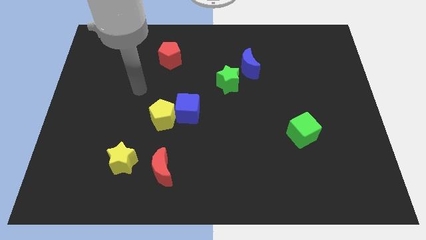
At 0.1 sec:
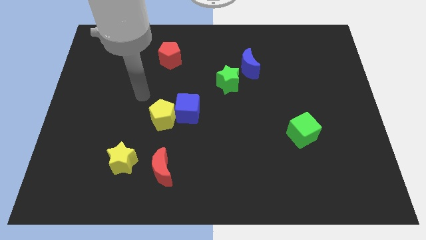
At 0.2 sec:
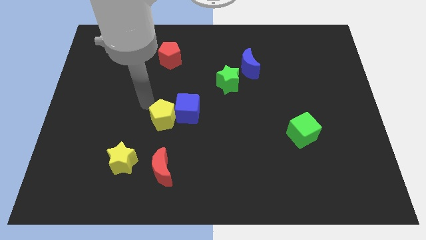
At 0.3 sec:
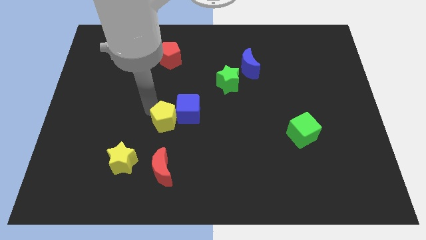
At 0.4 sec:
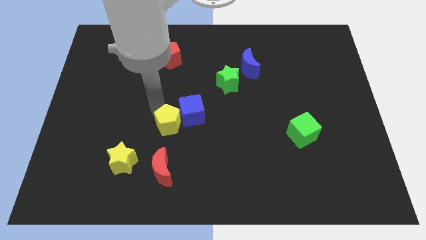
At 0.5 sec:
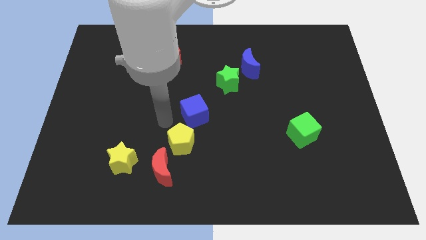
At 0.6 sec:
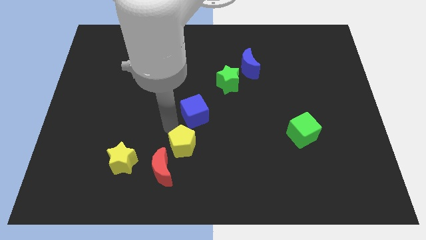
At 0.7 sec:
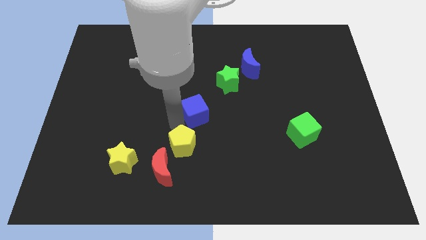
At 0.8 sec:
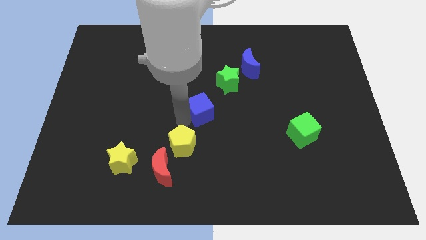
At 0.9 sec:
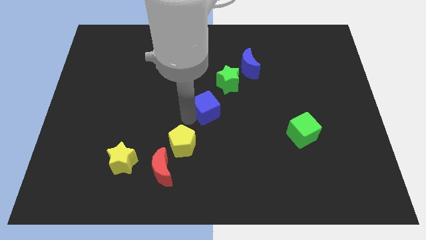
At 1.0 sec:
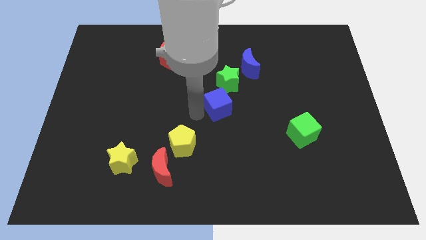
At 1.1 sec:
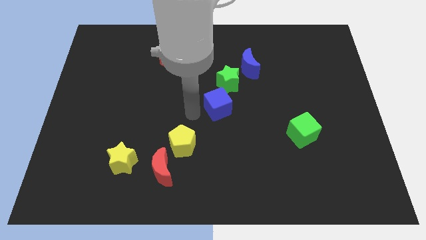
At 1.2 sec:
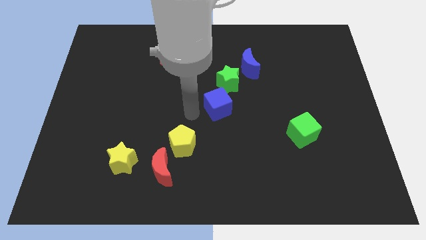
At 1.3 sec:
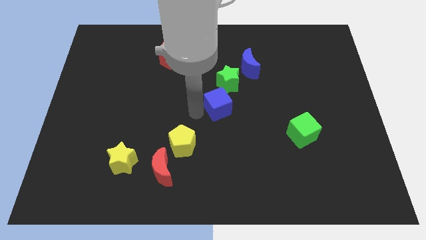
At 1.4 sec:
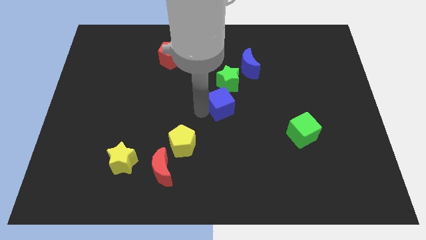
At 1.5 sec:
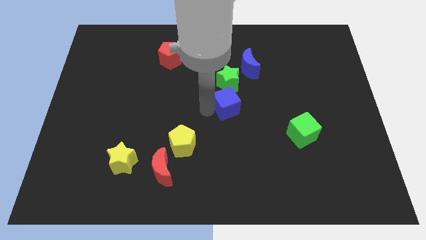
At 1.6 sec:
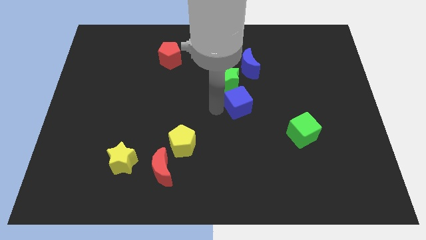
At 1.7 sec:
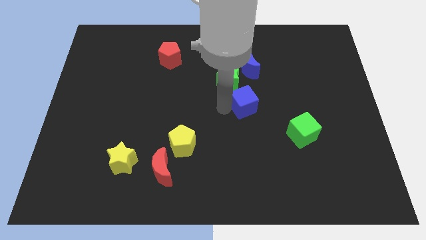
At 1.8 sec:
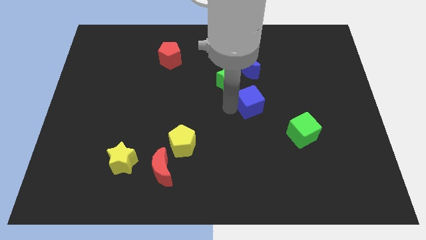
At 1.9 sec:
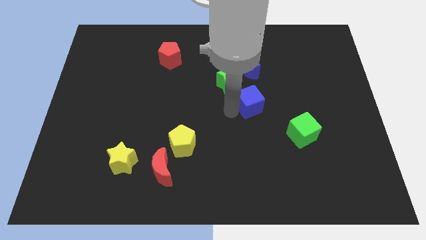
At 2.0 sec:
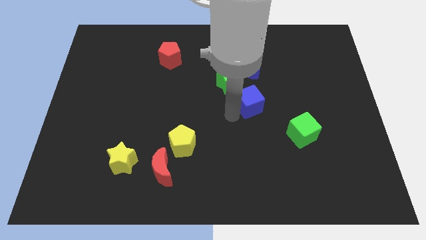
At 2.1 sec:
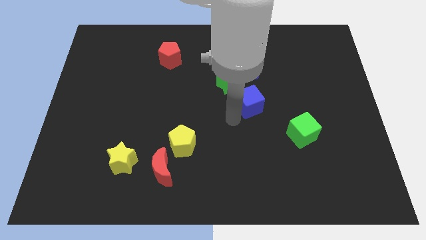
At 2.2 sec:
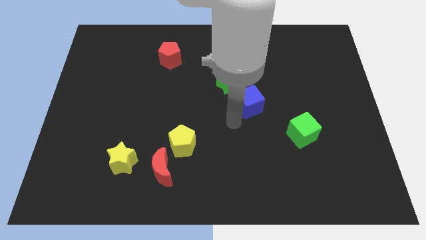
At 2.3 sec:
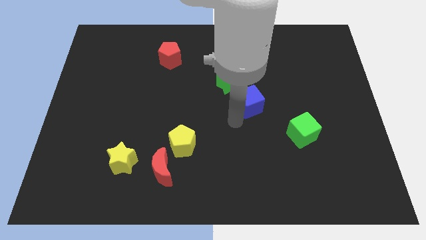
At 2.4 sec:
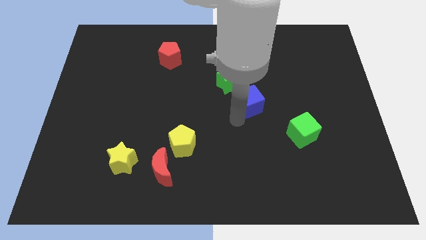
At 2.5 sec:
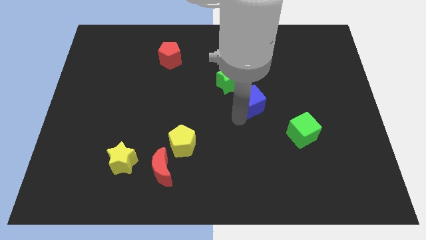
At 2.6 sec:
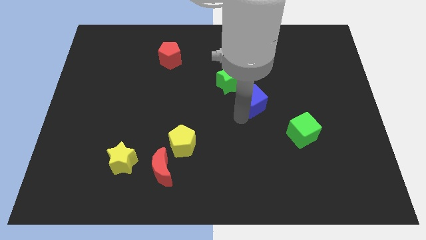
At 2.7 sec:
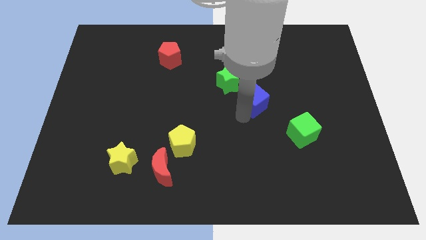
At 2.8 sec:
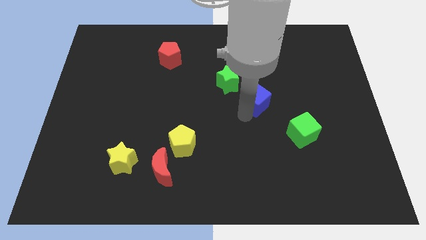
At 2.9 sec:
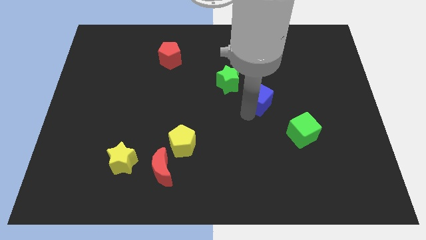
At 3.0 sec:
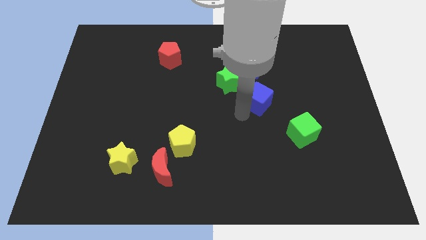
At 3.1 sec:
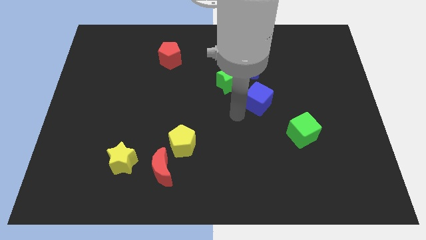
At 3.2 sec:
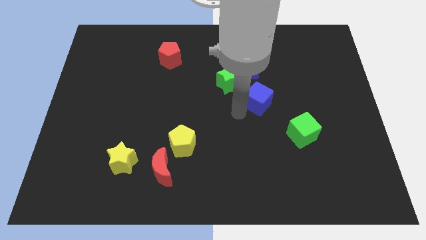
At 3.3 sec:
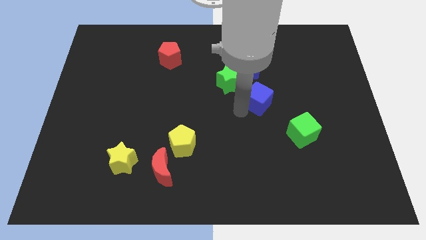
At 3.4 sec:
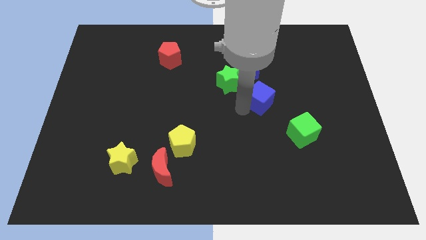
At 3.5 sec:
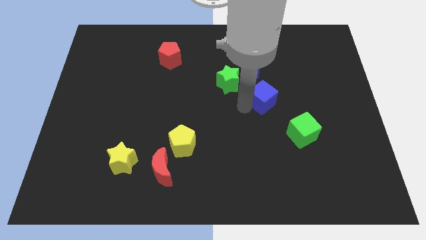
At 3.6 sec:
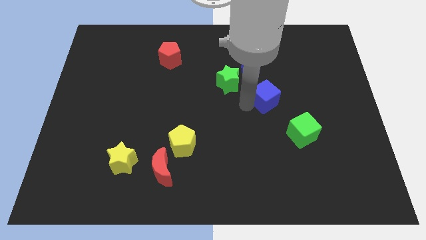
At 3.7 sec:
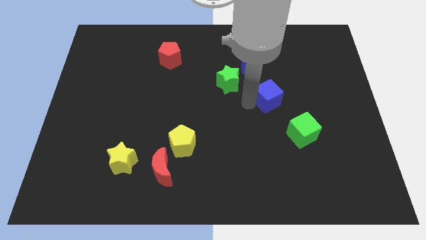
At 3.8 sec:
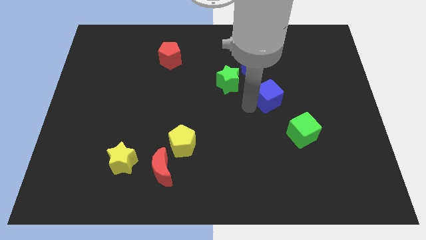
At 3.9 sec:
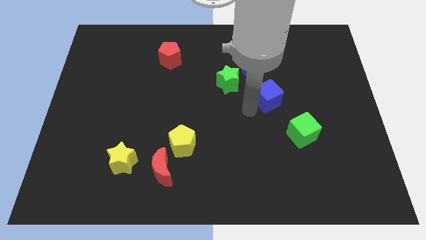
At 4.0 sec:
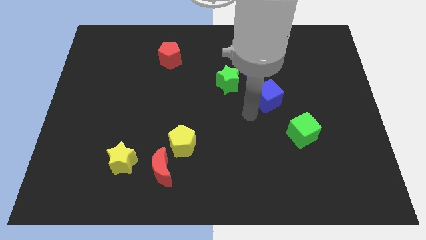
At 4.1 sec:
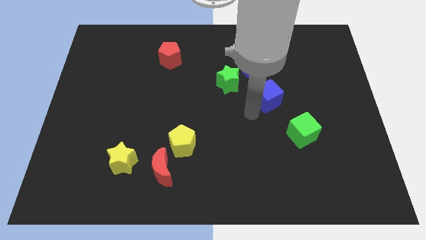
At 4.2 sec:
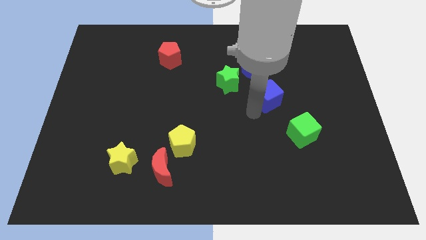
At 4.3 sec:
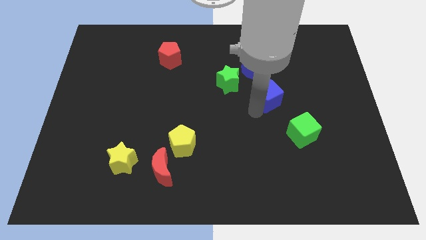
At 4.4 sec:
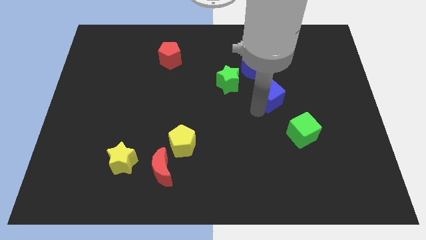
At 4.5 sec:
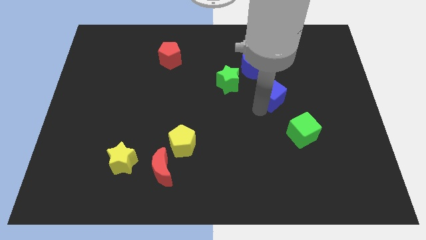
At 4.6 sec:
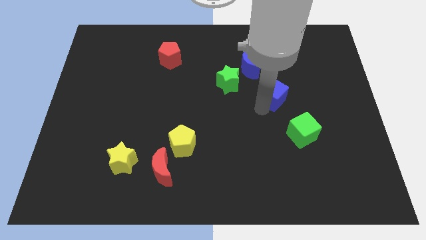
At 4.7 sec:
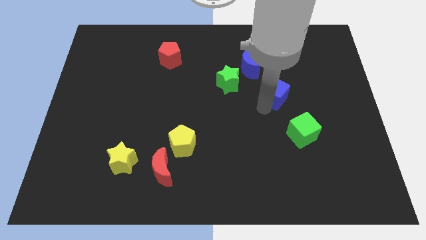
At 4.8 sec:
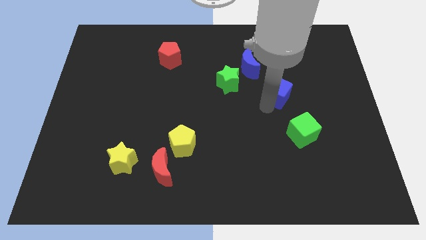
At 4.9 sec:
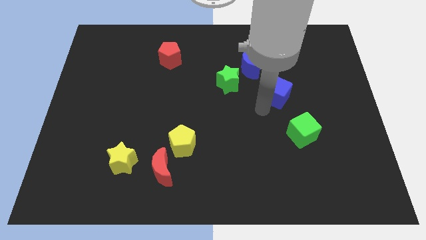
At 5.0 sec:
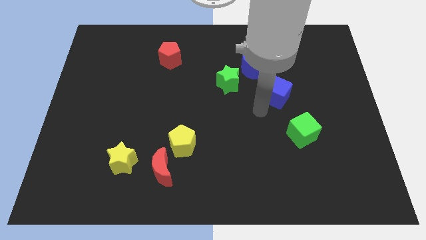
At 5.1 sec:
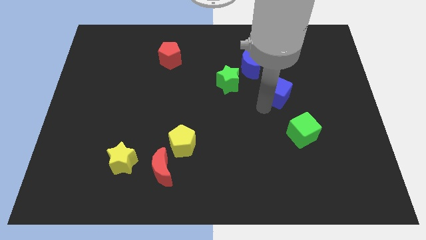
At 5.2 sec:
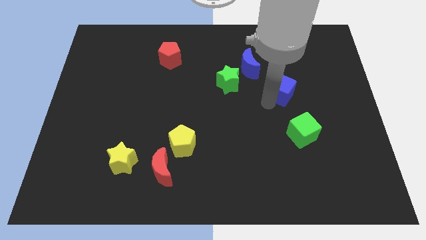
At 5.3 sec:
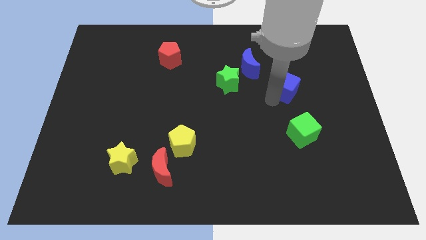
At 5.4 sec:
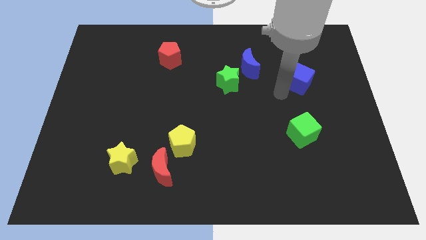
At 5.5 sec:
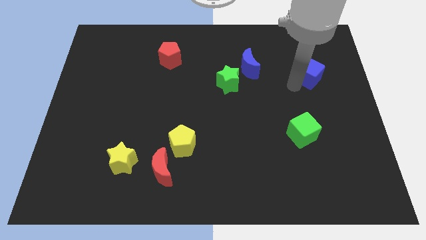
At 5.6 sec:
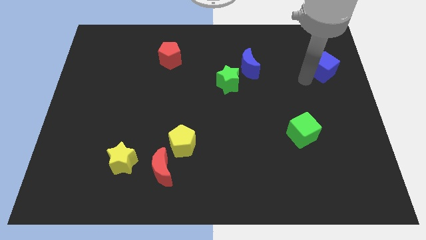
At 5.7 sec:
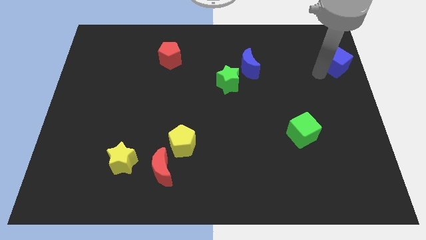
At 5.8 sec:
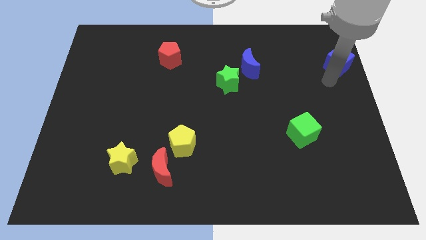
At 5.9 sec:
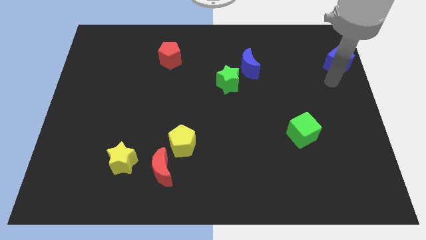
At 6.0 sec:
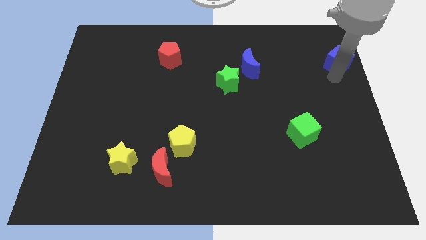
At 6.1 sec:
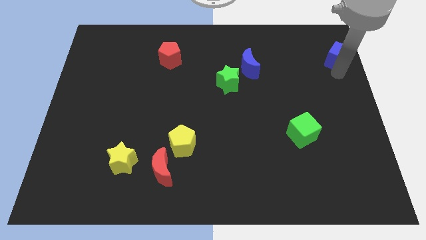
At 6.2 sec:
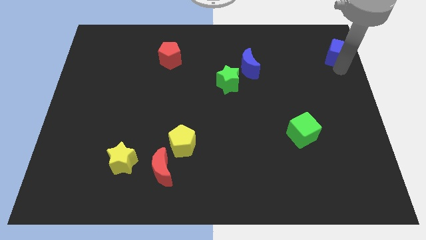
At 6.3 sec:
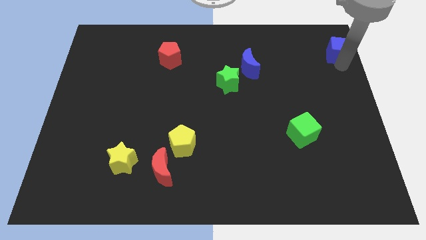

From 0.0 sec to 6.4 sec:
push the blue cube to the top right
